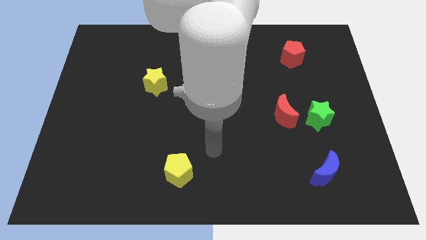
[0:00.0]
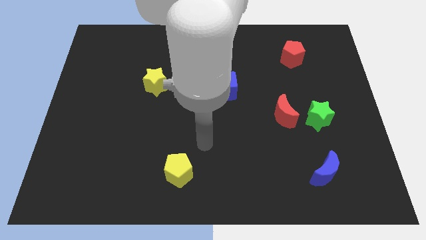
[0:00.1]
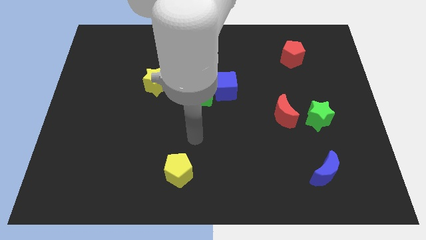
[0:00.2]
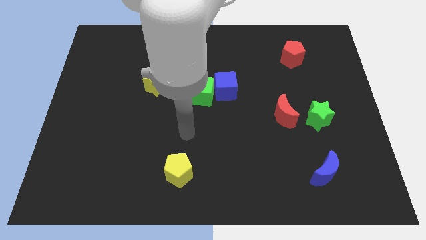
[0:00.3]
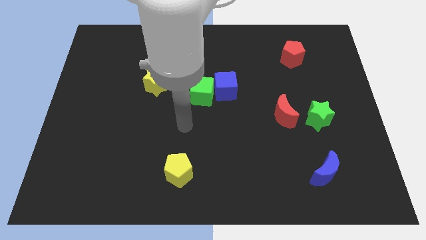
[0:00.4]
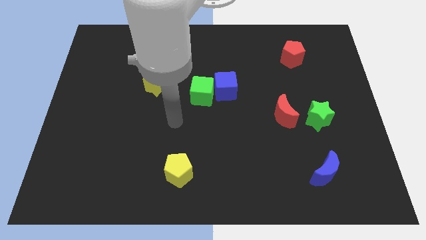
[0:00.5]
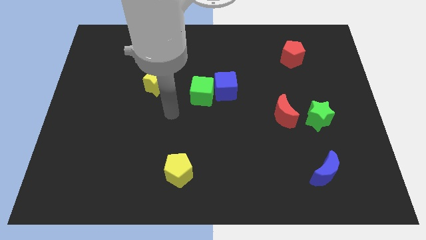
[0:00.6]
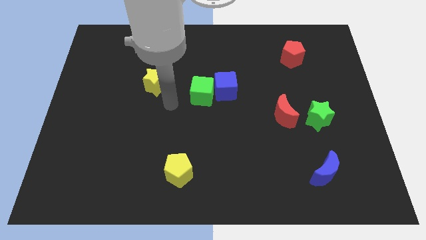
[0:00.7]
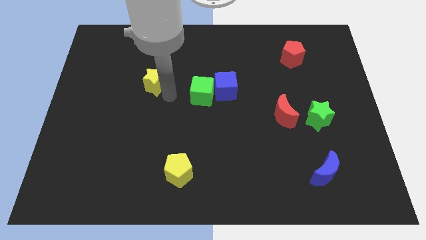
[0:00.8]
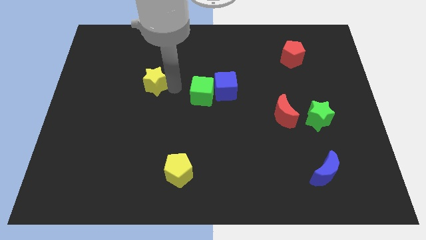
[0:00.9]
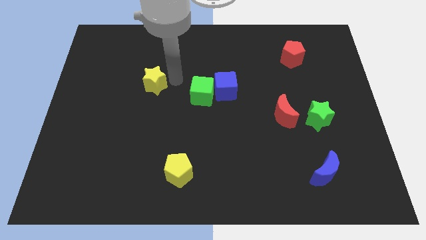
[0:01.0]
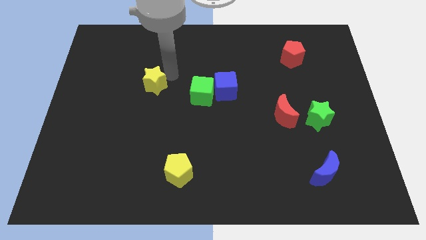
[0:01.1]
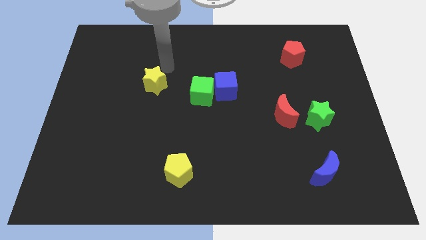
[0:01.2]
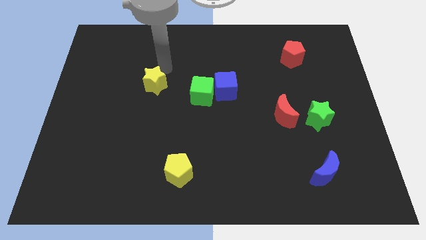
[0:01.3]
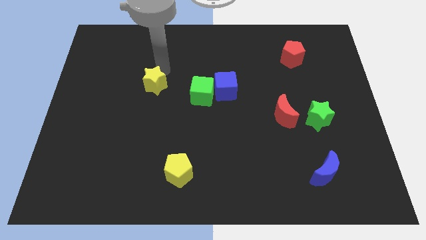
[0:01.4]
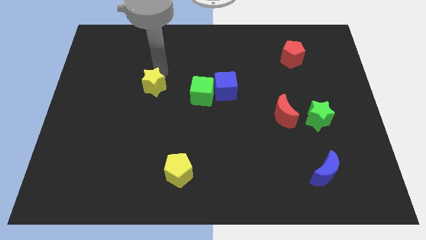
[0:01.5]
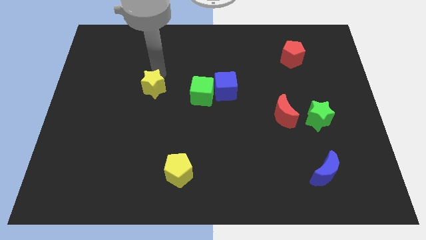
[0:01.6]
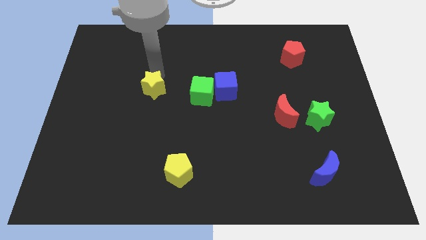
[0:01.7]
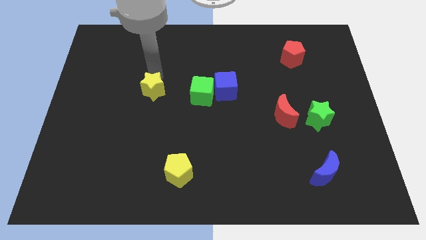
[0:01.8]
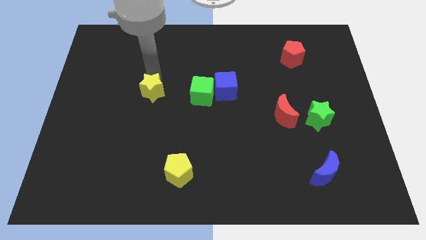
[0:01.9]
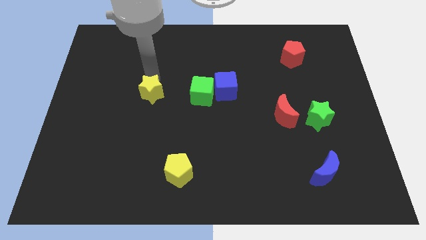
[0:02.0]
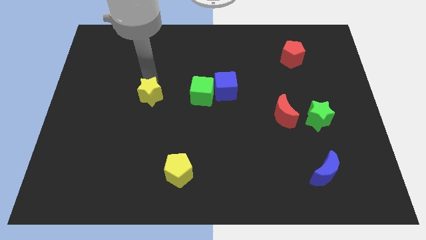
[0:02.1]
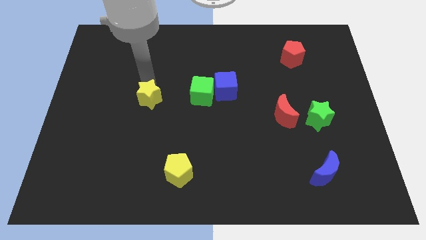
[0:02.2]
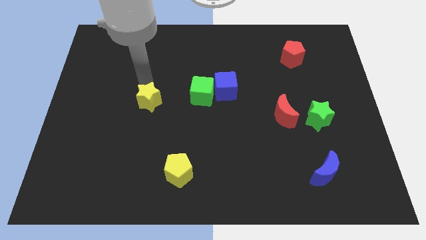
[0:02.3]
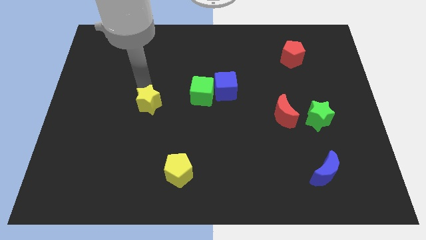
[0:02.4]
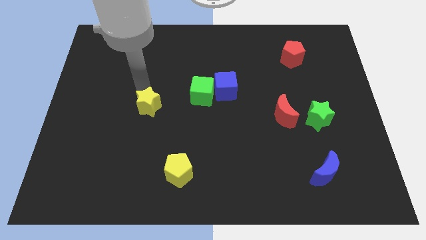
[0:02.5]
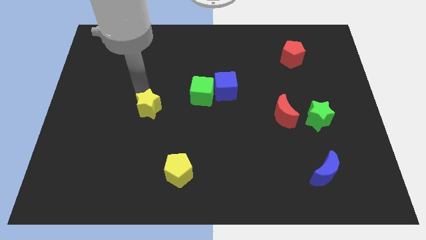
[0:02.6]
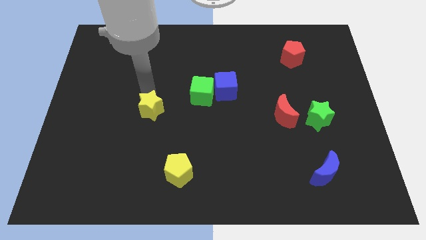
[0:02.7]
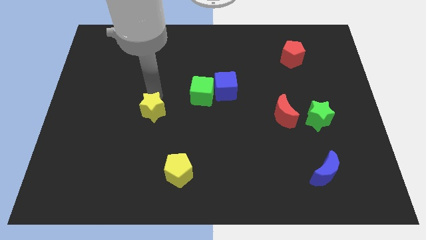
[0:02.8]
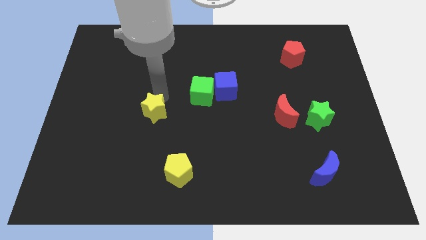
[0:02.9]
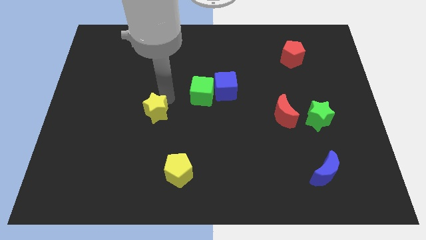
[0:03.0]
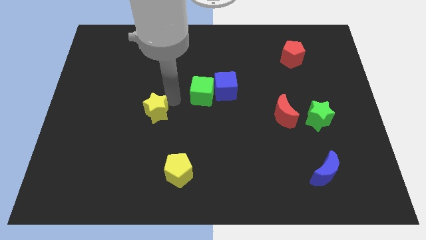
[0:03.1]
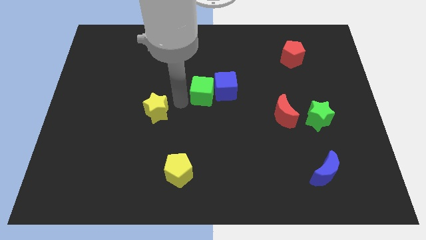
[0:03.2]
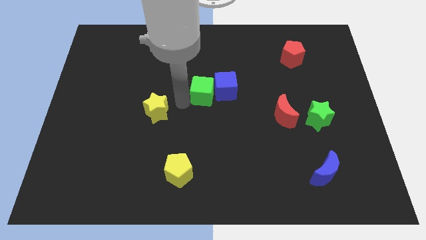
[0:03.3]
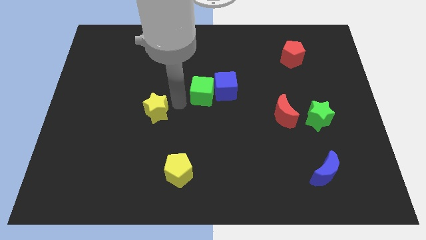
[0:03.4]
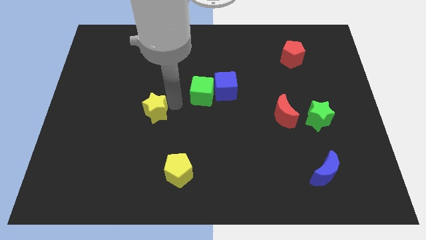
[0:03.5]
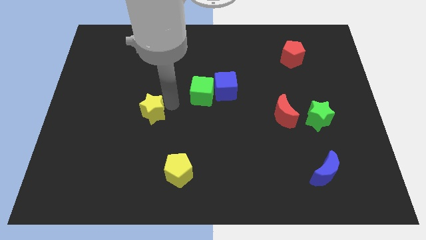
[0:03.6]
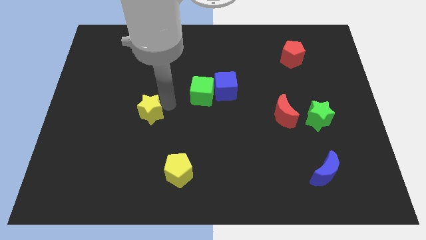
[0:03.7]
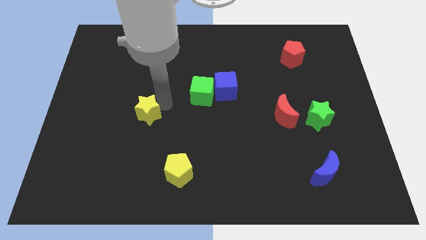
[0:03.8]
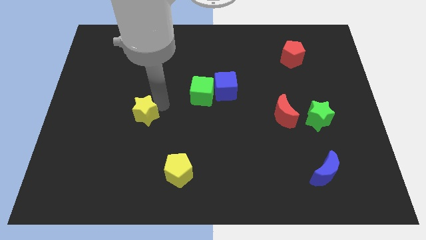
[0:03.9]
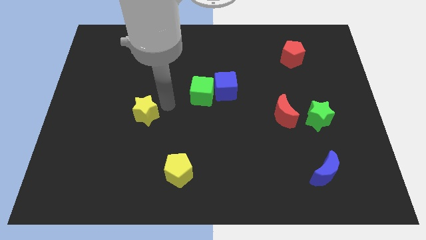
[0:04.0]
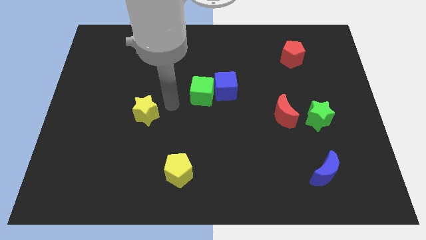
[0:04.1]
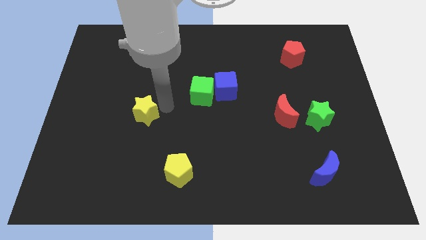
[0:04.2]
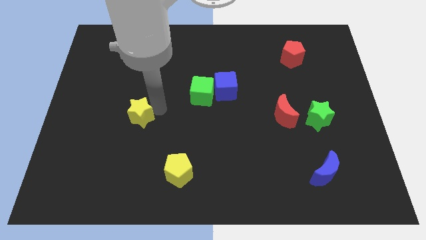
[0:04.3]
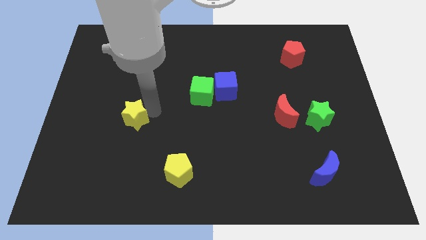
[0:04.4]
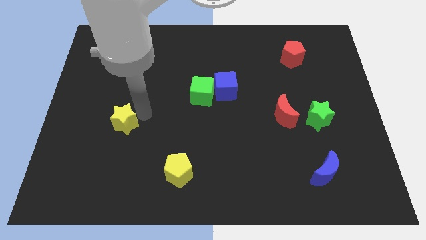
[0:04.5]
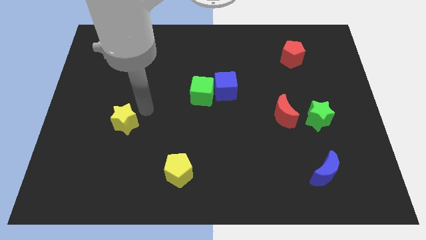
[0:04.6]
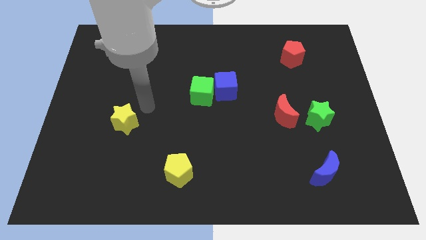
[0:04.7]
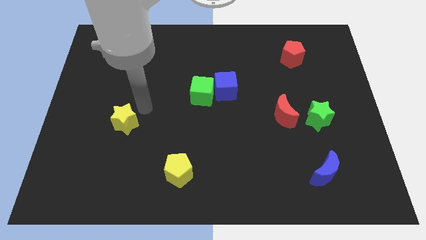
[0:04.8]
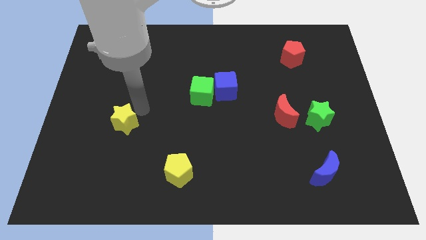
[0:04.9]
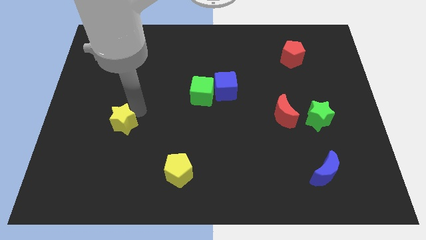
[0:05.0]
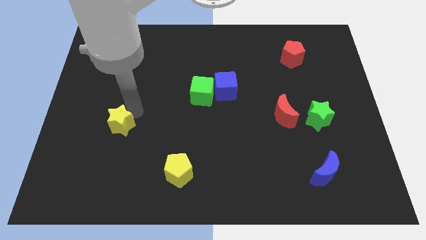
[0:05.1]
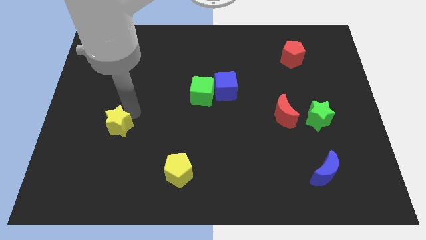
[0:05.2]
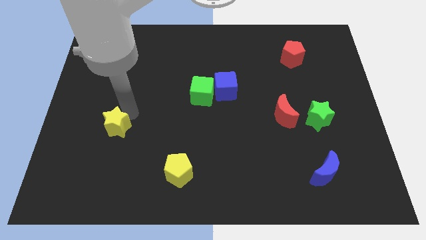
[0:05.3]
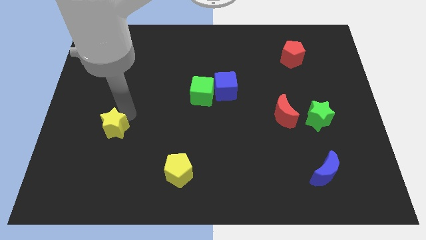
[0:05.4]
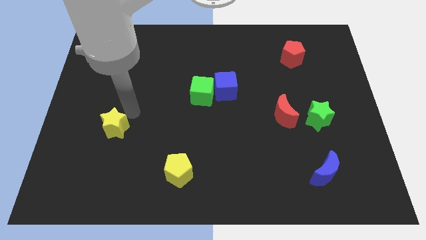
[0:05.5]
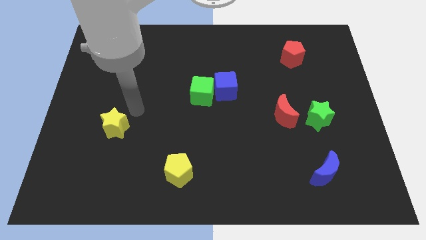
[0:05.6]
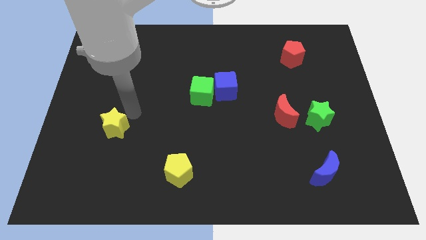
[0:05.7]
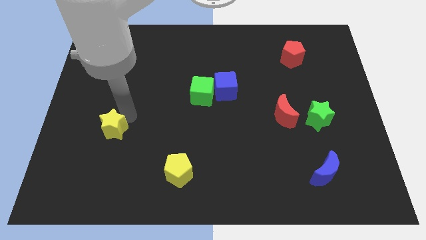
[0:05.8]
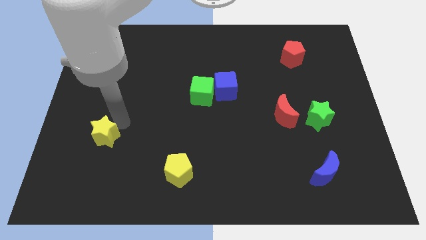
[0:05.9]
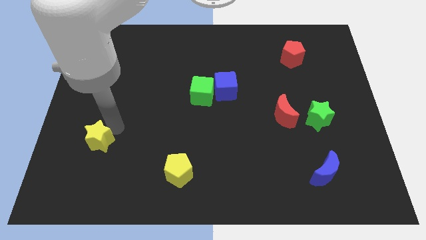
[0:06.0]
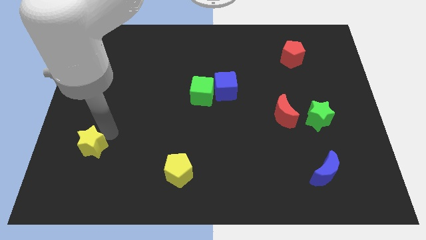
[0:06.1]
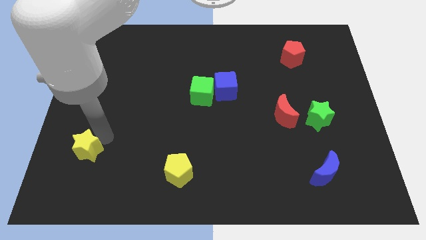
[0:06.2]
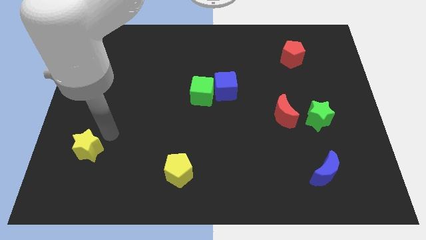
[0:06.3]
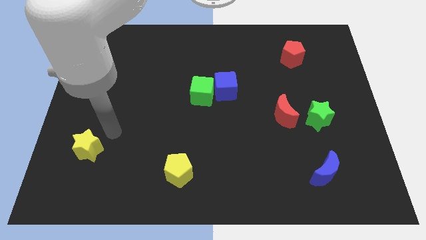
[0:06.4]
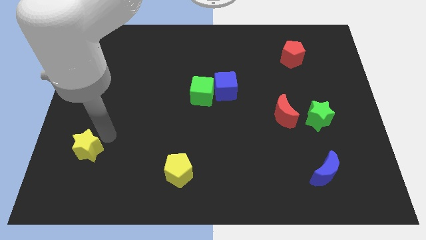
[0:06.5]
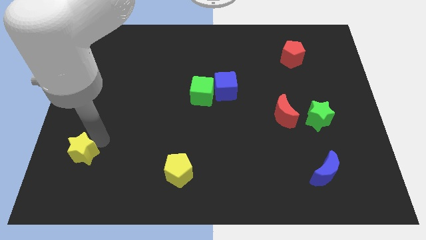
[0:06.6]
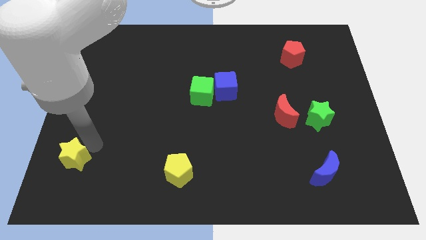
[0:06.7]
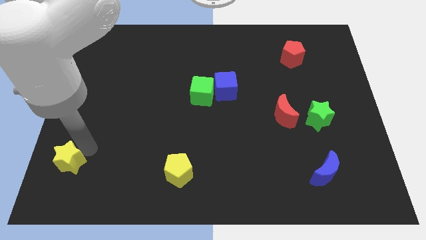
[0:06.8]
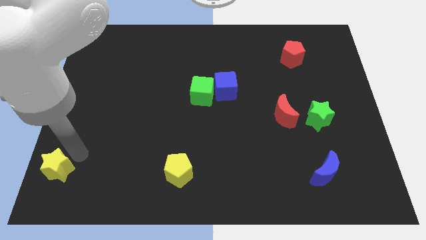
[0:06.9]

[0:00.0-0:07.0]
push the yellow star to the bottom left of the board

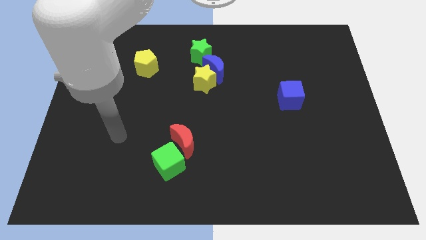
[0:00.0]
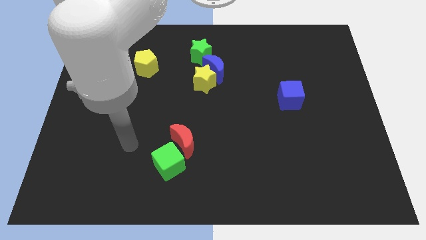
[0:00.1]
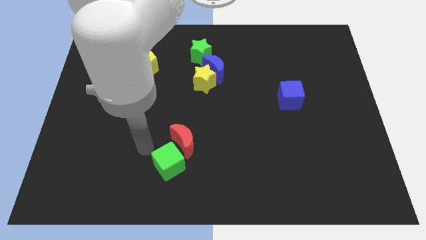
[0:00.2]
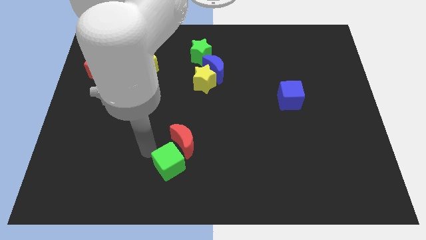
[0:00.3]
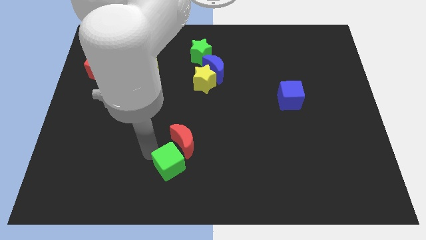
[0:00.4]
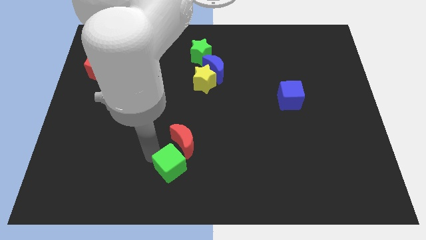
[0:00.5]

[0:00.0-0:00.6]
push the green cube to the bottom

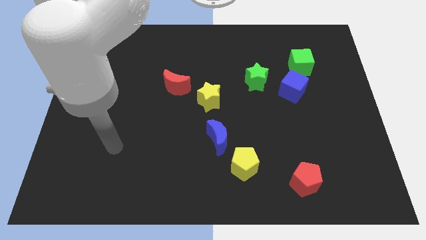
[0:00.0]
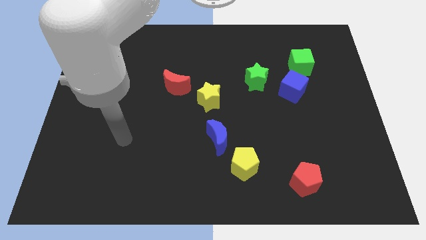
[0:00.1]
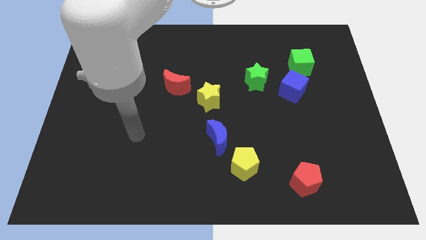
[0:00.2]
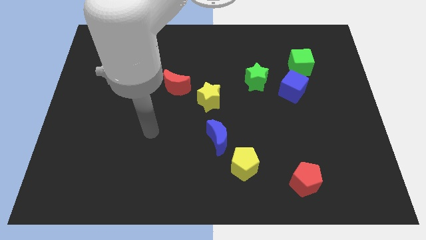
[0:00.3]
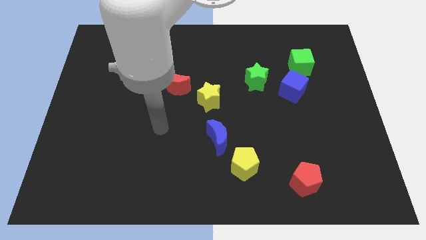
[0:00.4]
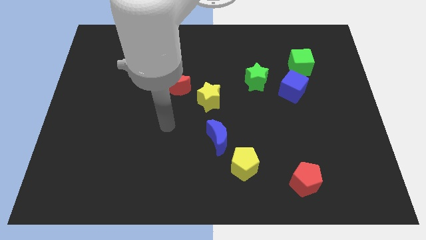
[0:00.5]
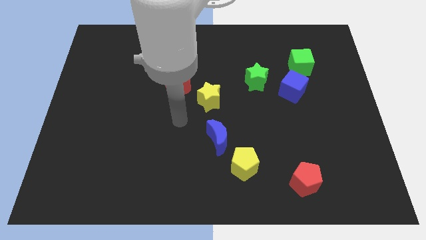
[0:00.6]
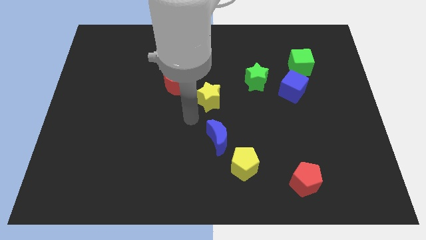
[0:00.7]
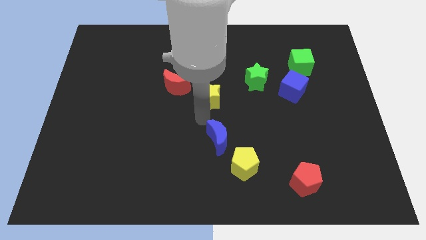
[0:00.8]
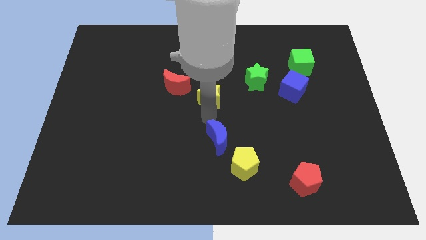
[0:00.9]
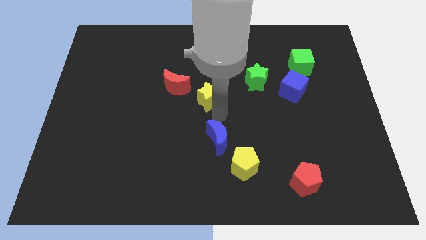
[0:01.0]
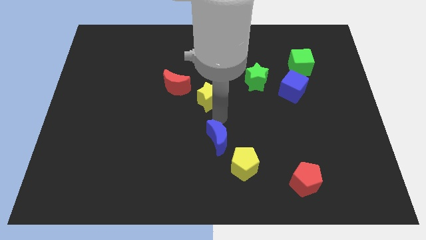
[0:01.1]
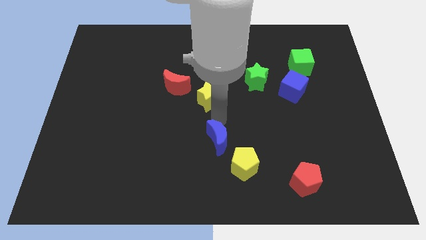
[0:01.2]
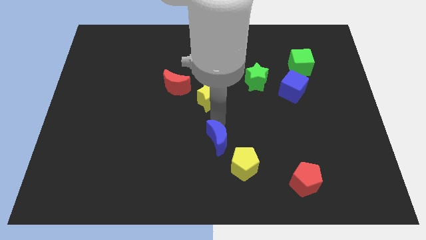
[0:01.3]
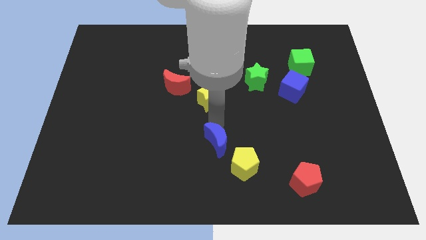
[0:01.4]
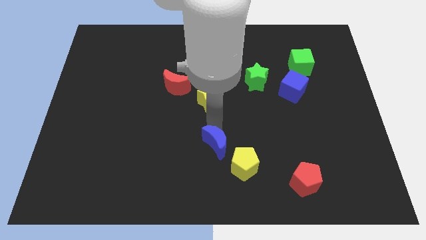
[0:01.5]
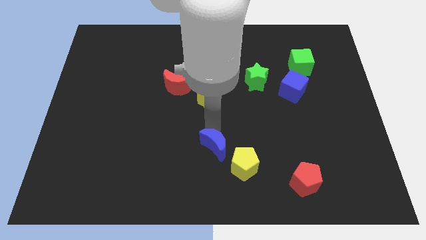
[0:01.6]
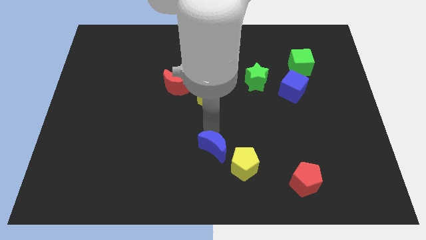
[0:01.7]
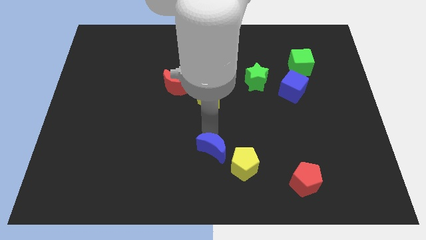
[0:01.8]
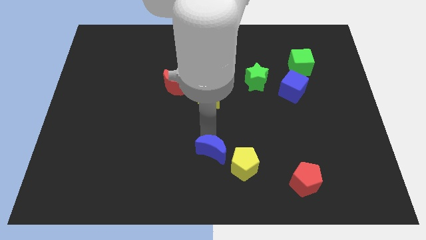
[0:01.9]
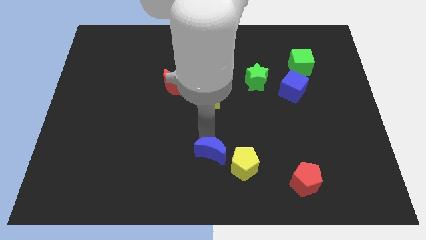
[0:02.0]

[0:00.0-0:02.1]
move the blue moon to the bottom
